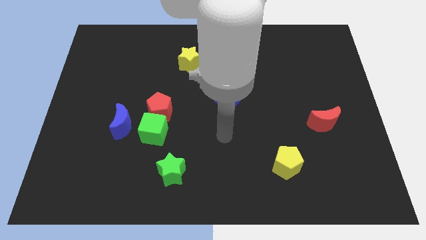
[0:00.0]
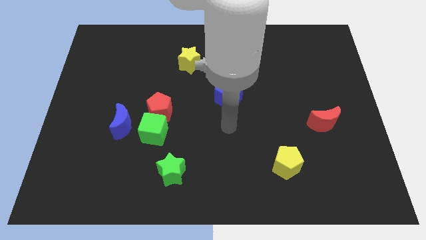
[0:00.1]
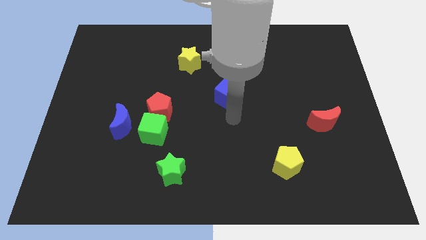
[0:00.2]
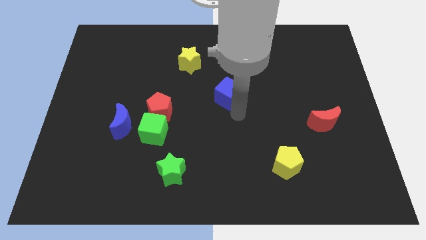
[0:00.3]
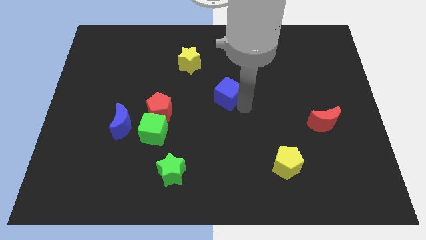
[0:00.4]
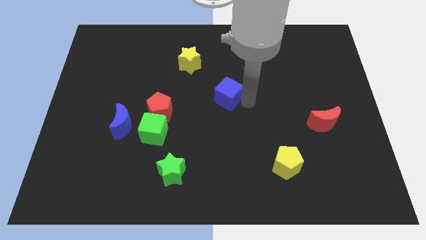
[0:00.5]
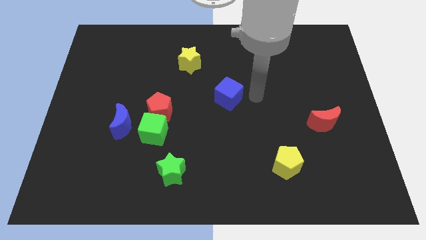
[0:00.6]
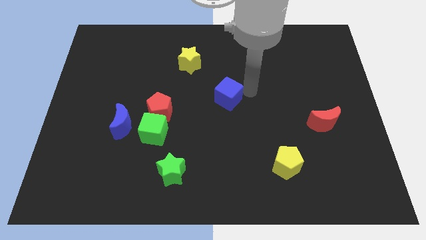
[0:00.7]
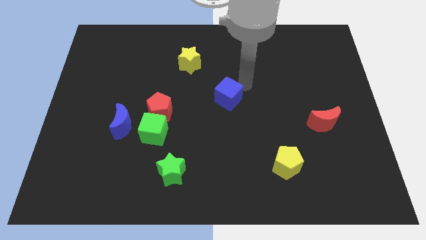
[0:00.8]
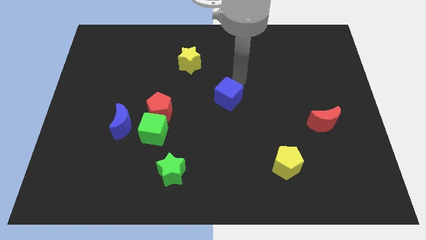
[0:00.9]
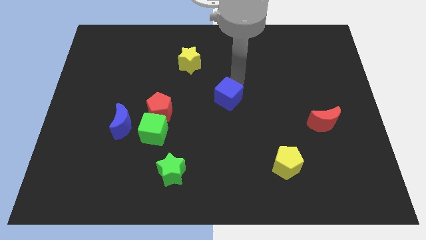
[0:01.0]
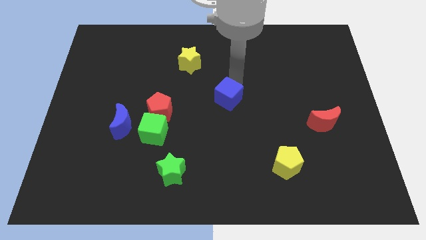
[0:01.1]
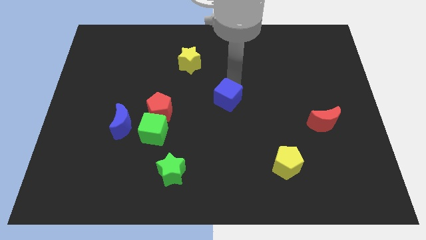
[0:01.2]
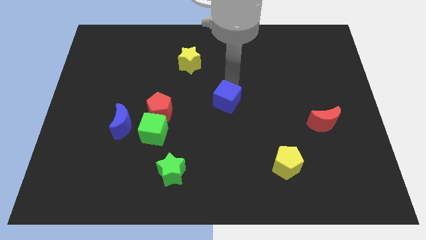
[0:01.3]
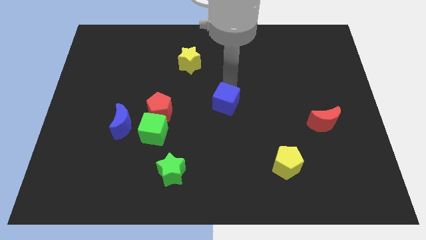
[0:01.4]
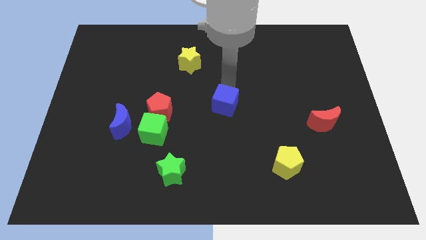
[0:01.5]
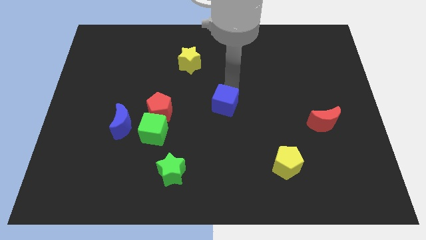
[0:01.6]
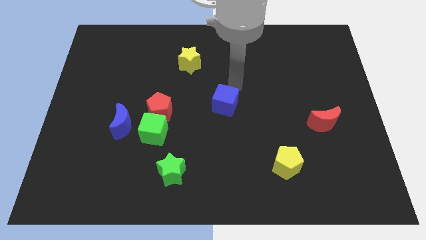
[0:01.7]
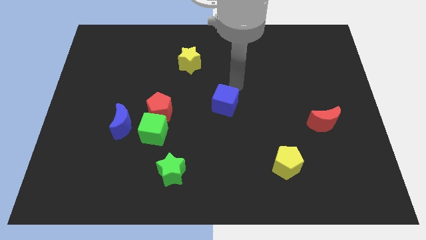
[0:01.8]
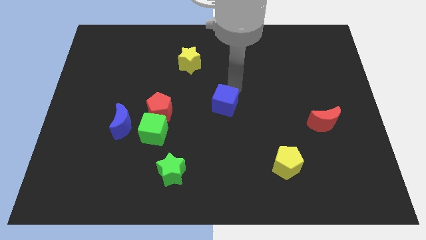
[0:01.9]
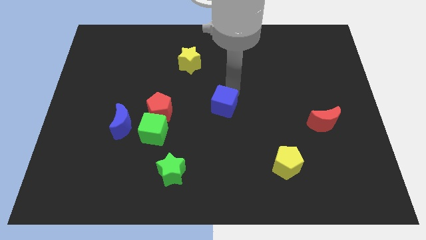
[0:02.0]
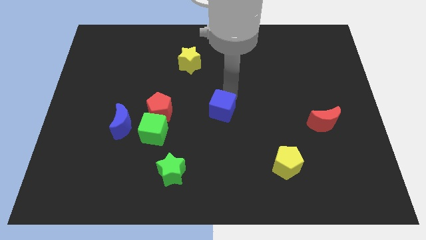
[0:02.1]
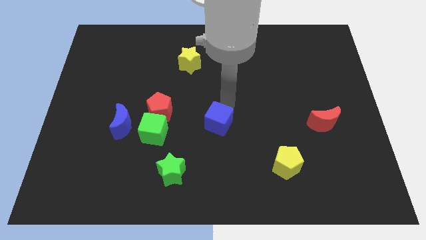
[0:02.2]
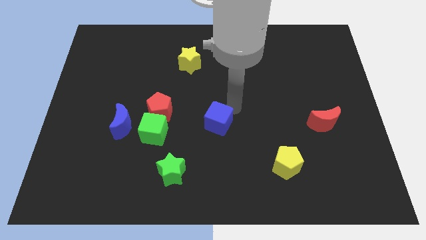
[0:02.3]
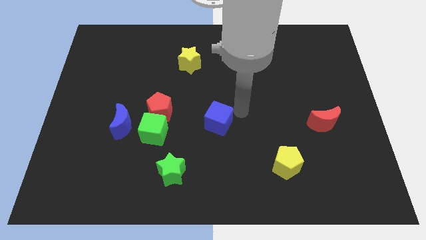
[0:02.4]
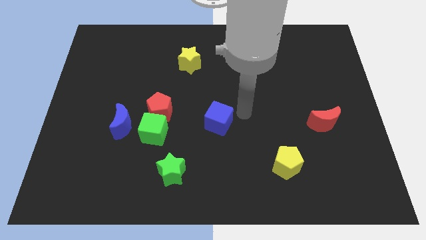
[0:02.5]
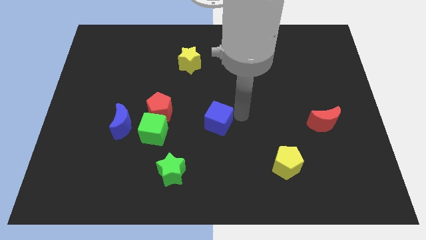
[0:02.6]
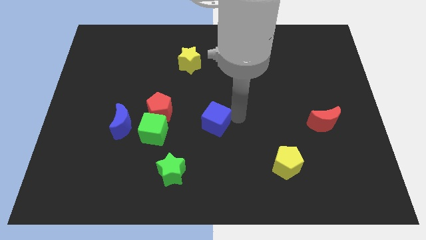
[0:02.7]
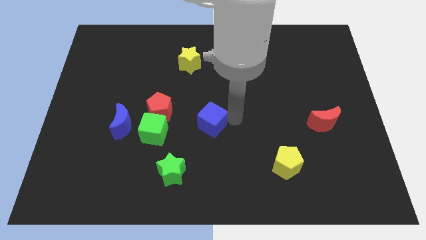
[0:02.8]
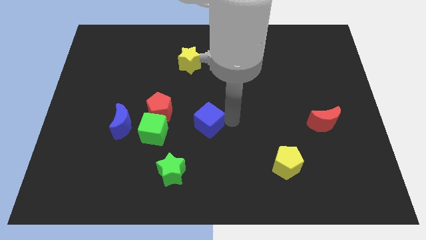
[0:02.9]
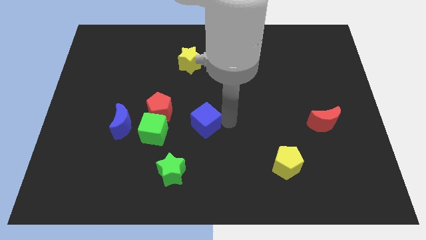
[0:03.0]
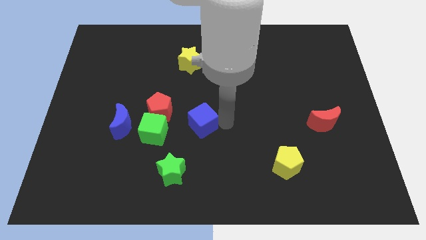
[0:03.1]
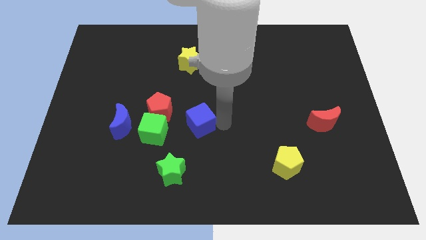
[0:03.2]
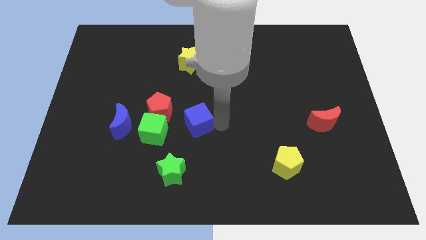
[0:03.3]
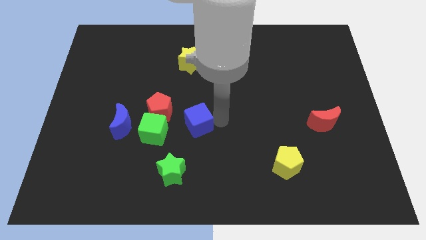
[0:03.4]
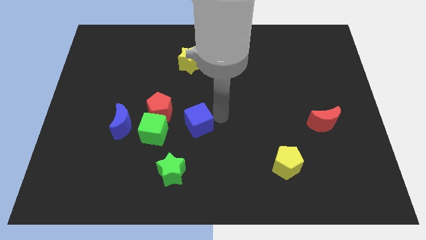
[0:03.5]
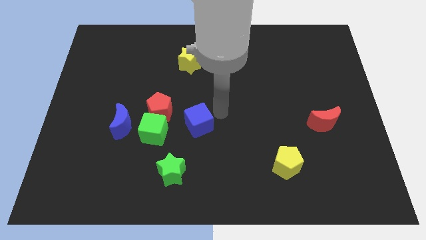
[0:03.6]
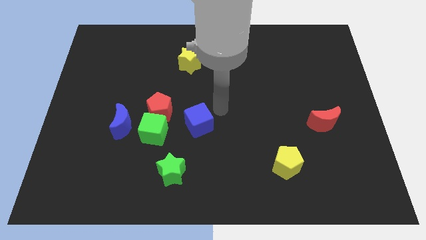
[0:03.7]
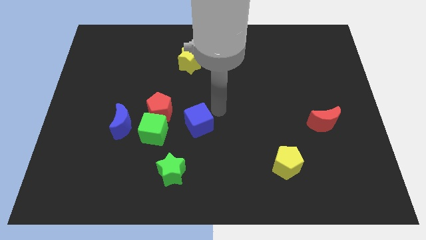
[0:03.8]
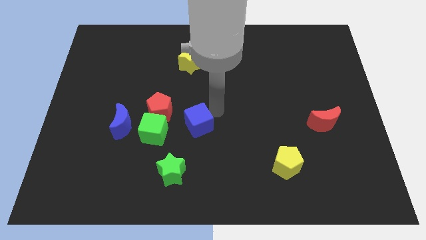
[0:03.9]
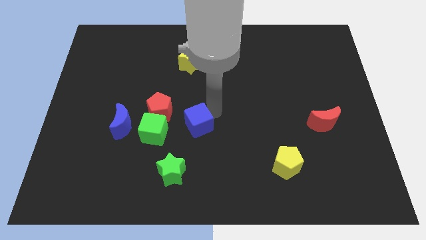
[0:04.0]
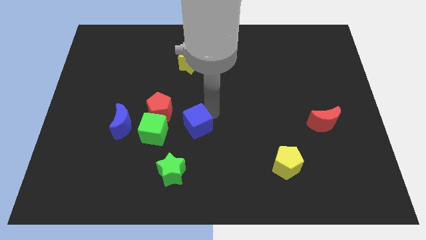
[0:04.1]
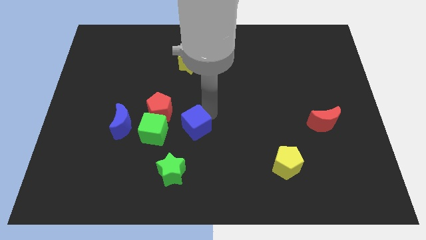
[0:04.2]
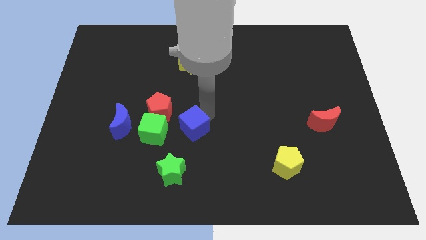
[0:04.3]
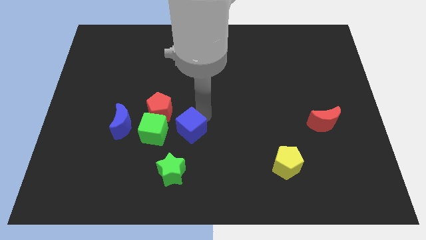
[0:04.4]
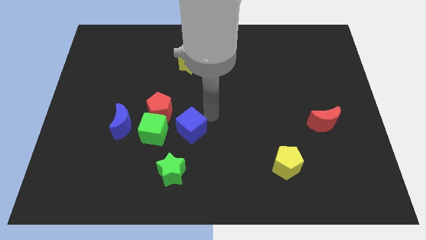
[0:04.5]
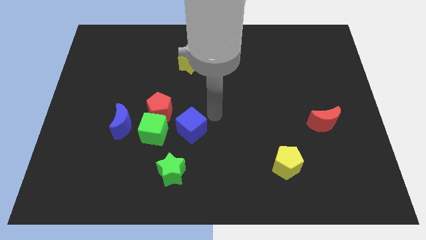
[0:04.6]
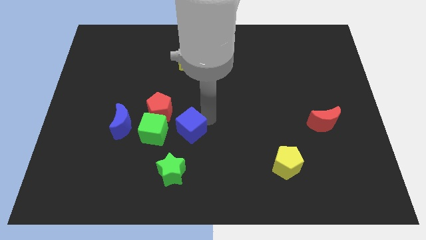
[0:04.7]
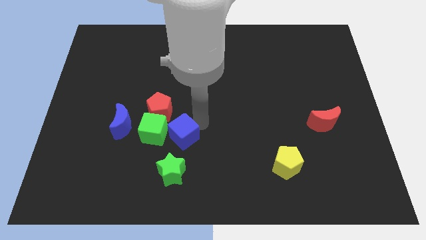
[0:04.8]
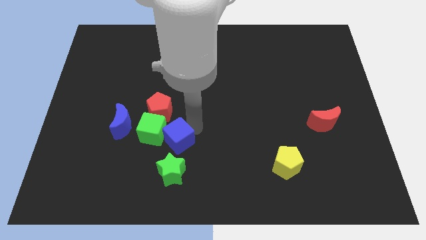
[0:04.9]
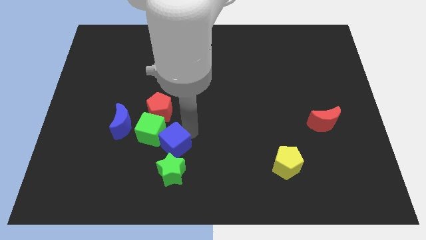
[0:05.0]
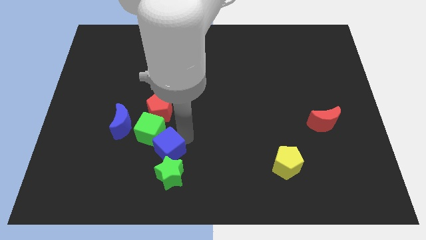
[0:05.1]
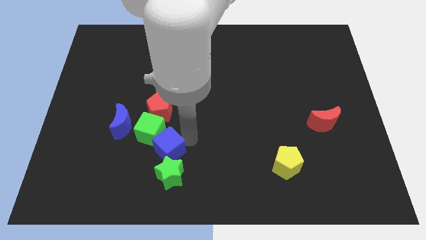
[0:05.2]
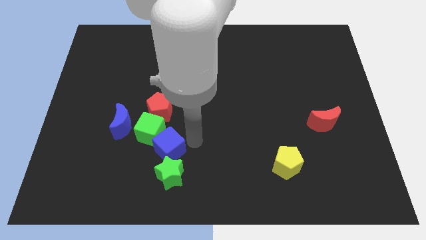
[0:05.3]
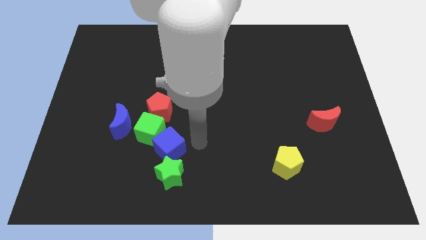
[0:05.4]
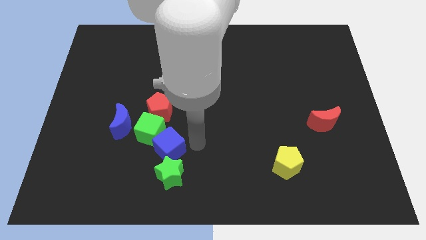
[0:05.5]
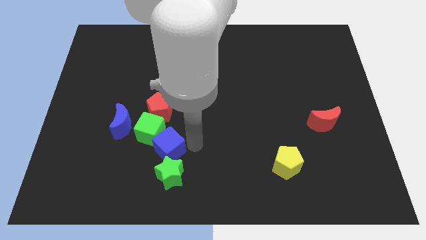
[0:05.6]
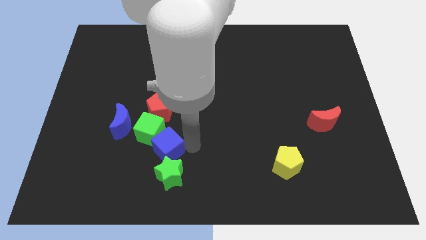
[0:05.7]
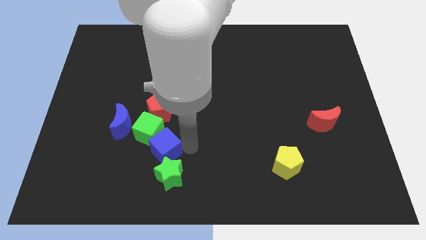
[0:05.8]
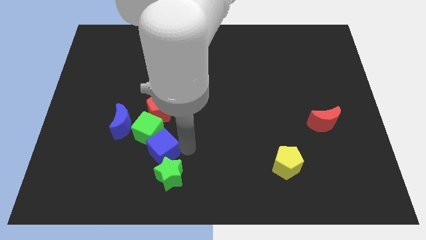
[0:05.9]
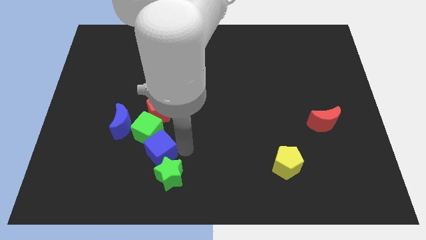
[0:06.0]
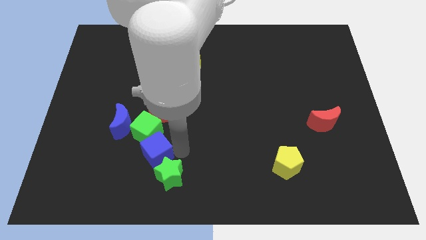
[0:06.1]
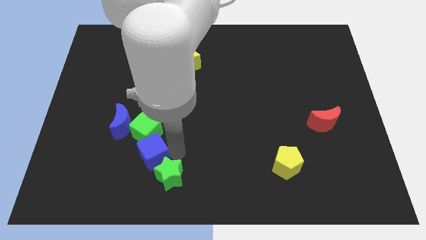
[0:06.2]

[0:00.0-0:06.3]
slide the blue cube left of the green star

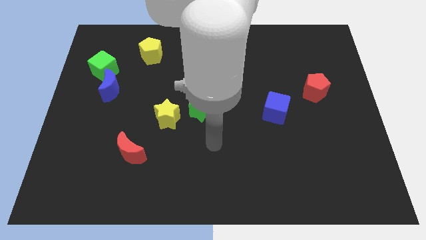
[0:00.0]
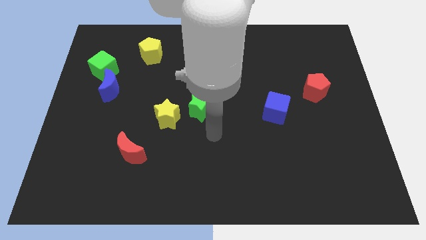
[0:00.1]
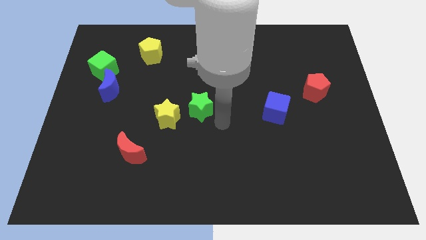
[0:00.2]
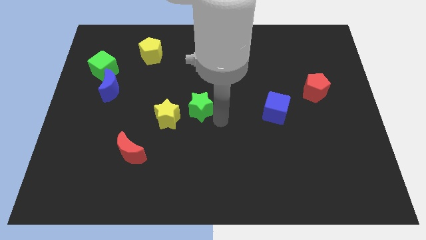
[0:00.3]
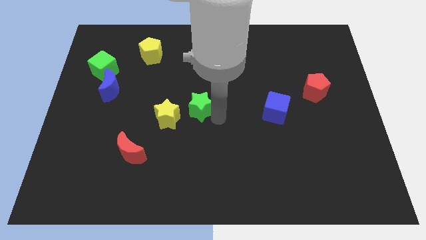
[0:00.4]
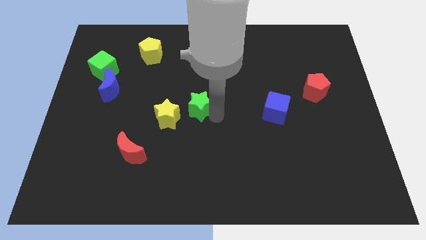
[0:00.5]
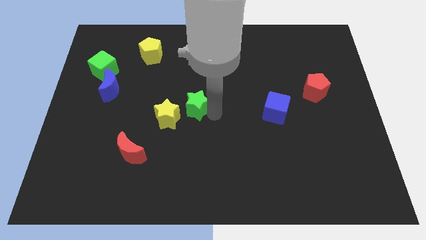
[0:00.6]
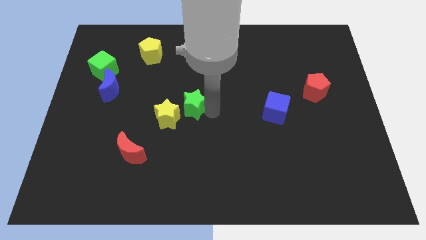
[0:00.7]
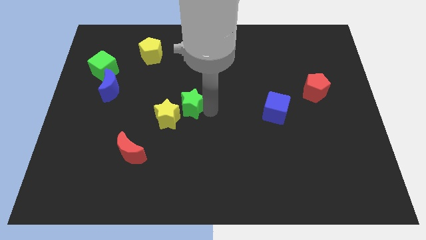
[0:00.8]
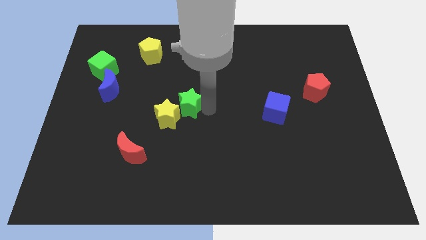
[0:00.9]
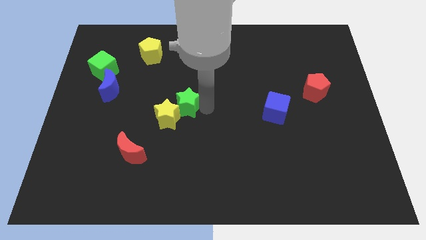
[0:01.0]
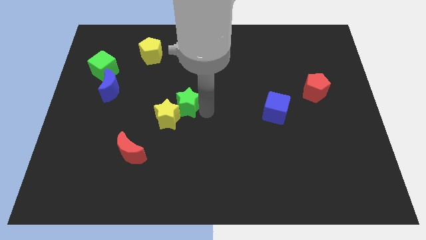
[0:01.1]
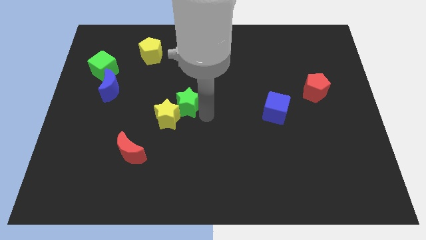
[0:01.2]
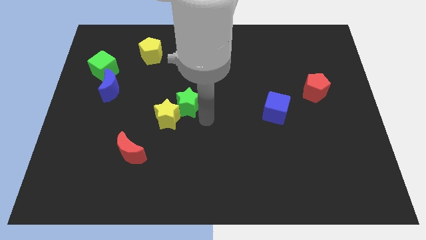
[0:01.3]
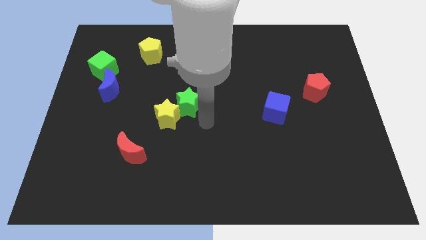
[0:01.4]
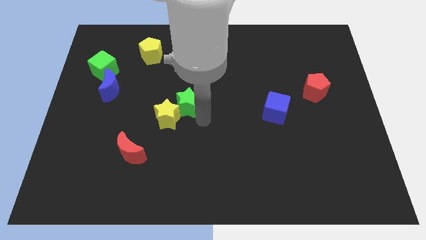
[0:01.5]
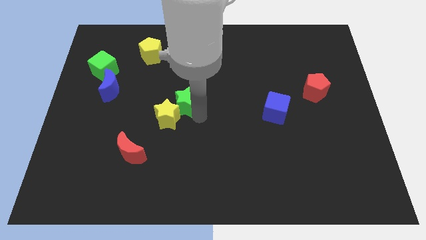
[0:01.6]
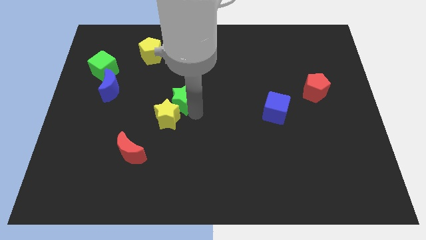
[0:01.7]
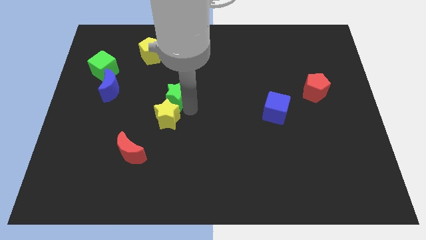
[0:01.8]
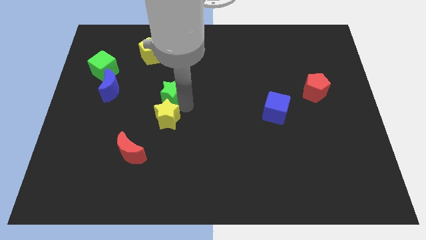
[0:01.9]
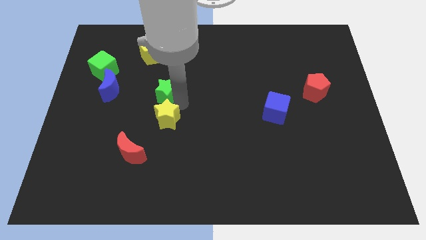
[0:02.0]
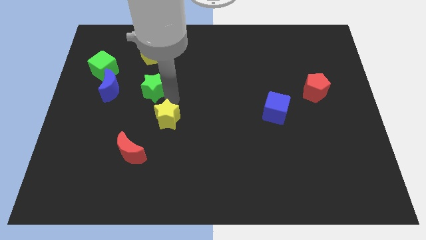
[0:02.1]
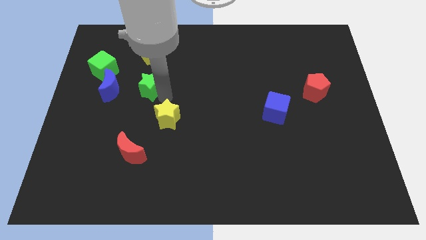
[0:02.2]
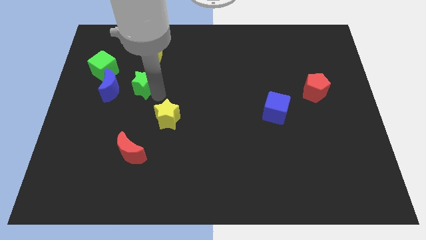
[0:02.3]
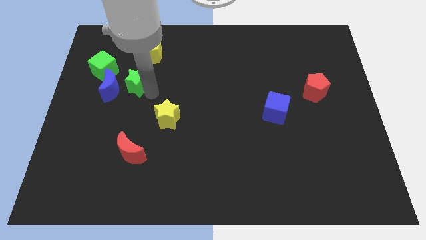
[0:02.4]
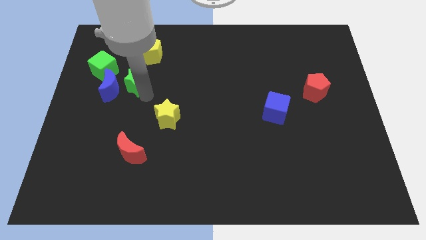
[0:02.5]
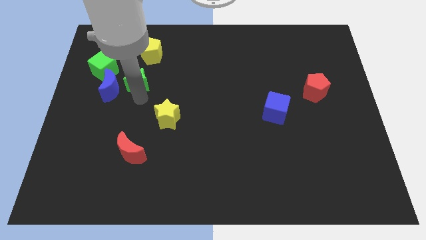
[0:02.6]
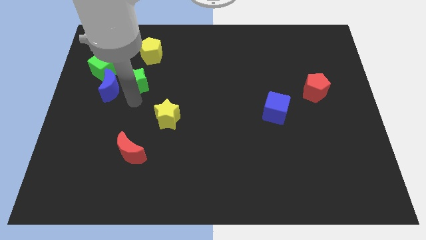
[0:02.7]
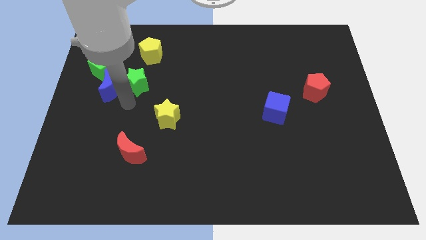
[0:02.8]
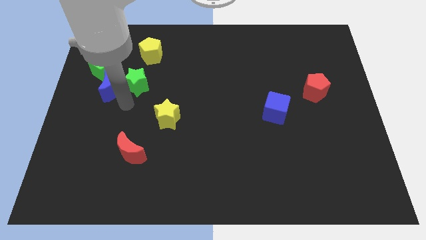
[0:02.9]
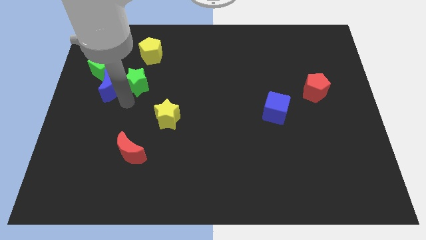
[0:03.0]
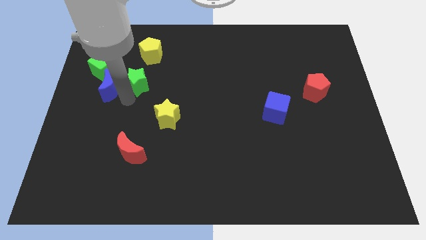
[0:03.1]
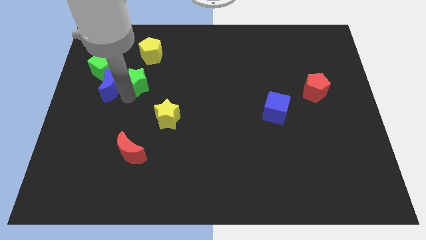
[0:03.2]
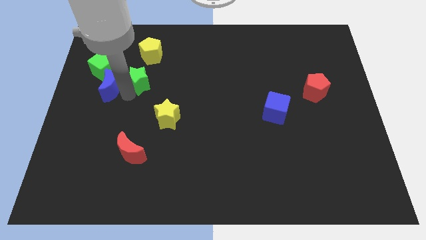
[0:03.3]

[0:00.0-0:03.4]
push the green star to the right of the green cube
